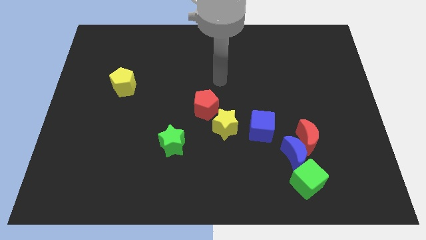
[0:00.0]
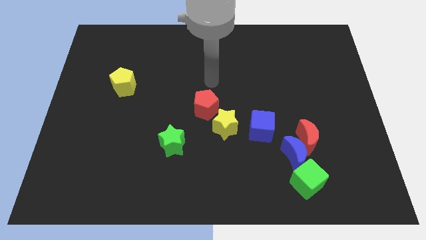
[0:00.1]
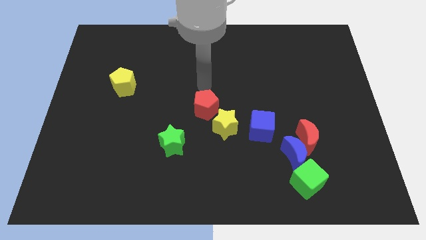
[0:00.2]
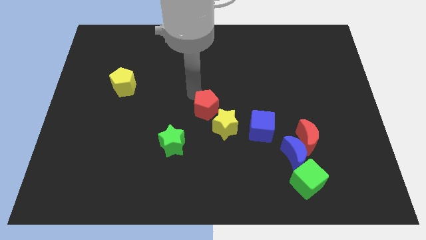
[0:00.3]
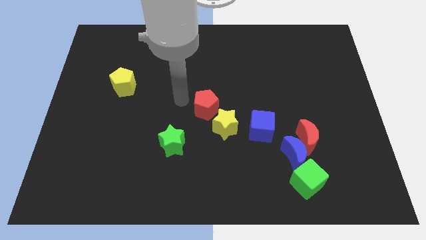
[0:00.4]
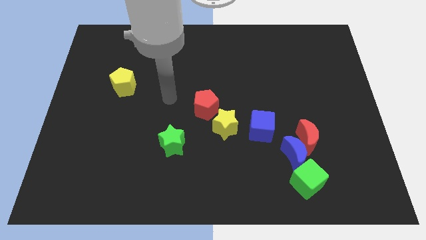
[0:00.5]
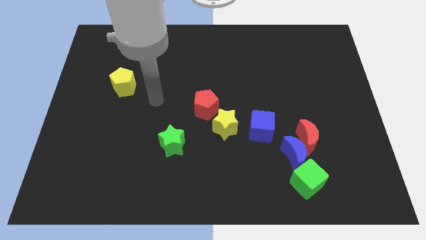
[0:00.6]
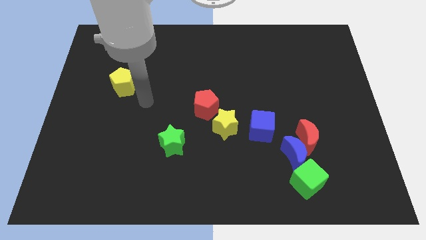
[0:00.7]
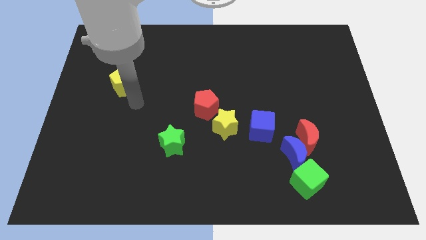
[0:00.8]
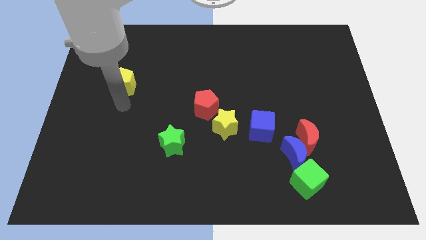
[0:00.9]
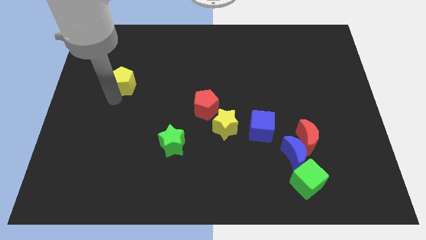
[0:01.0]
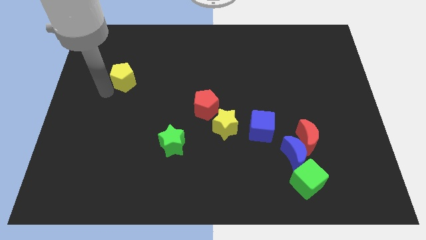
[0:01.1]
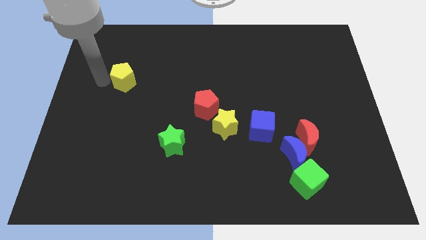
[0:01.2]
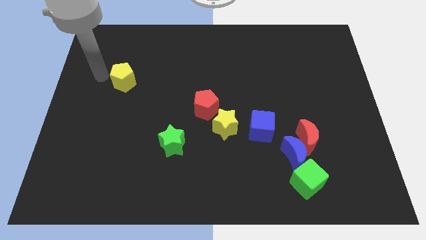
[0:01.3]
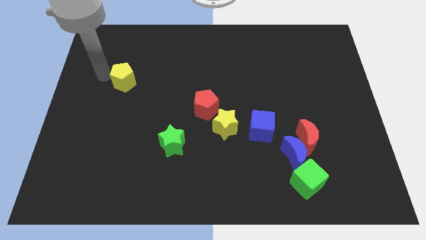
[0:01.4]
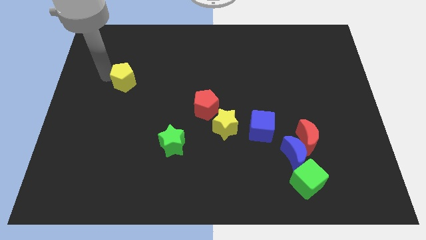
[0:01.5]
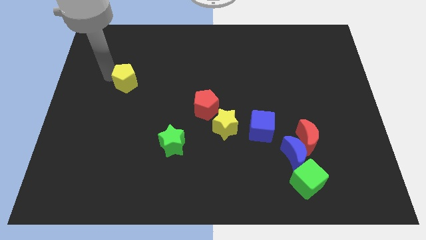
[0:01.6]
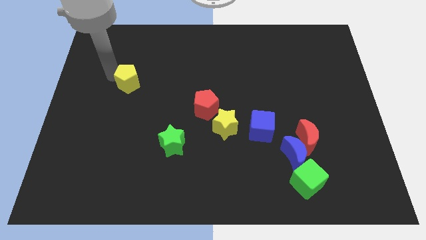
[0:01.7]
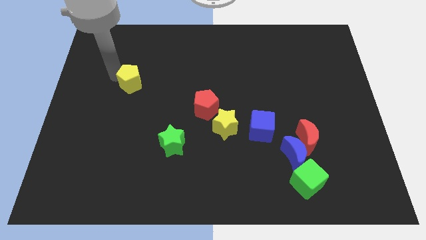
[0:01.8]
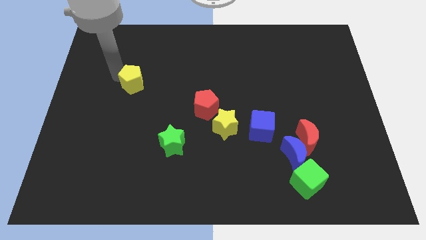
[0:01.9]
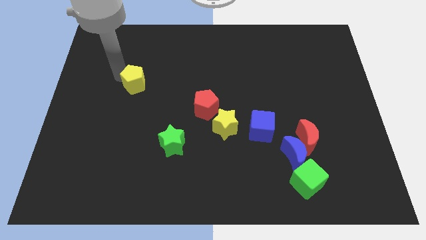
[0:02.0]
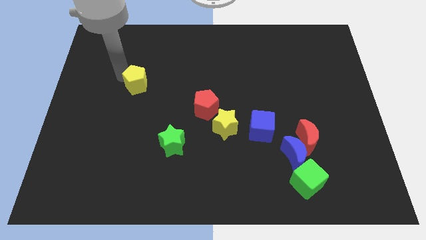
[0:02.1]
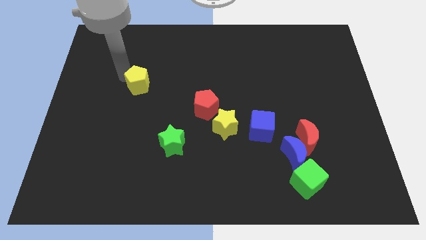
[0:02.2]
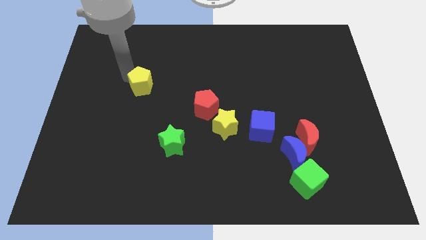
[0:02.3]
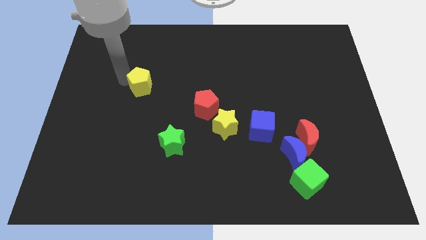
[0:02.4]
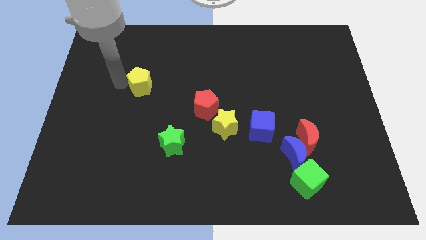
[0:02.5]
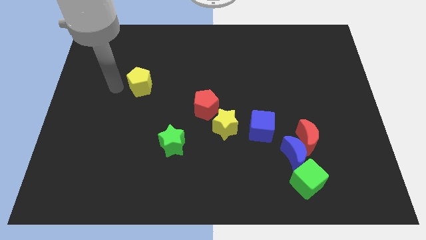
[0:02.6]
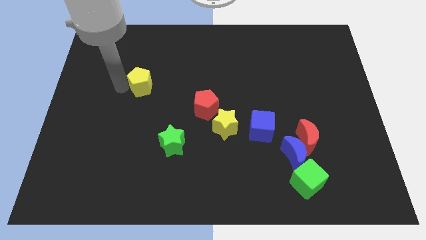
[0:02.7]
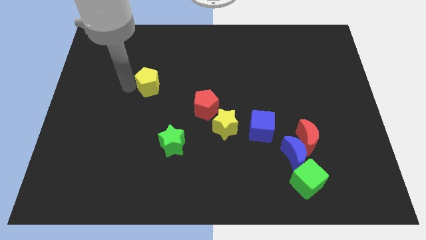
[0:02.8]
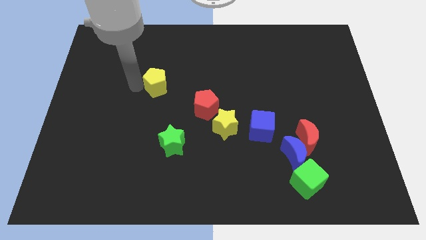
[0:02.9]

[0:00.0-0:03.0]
push the yellow pentagon to the right a bit

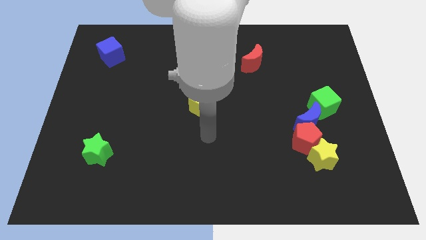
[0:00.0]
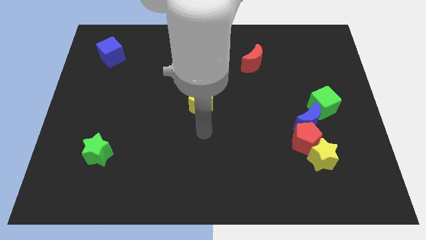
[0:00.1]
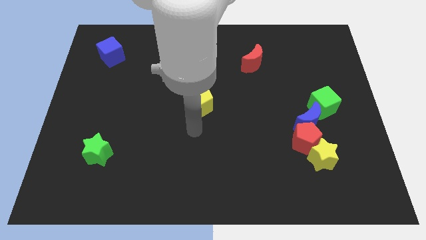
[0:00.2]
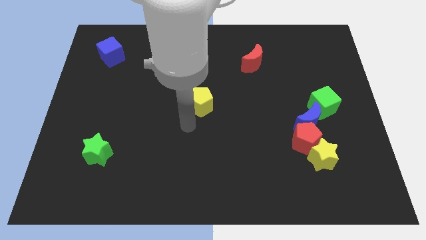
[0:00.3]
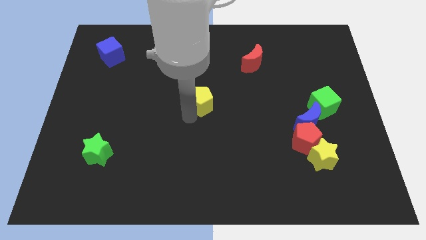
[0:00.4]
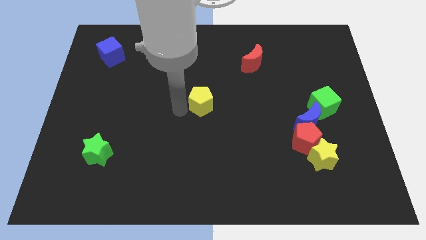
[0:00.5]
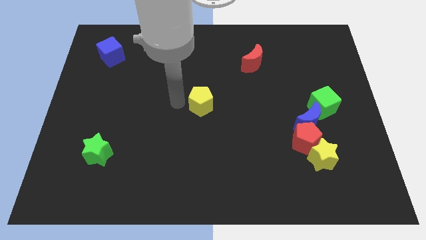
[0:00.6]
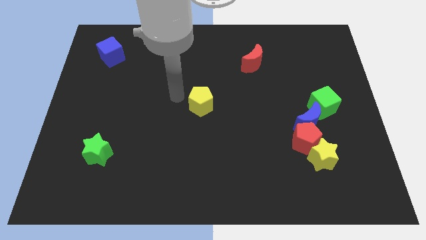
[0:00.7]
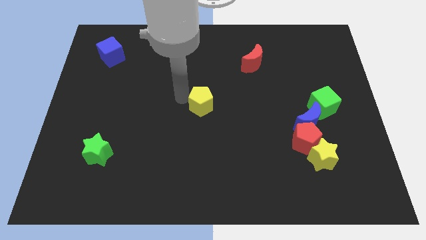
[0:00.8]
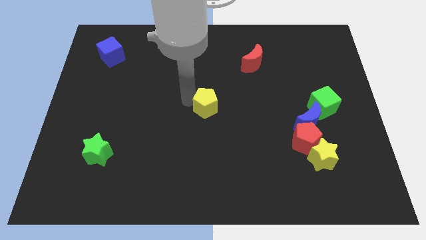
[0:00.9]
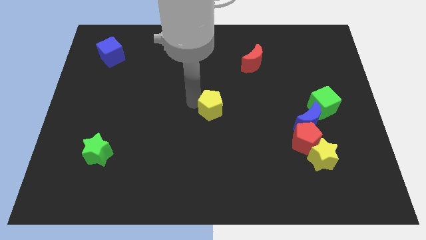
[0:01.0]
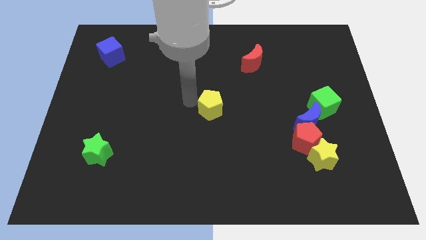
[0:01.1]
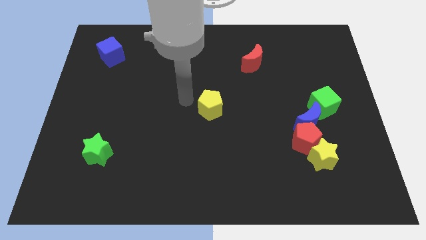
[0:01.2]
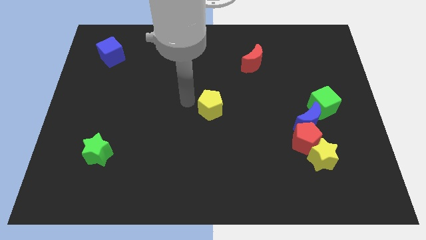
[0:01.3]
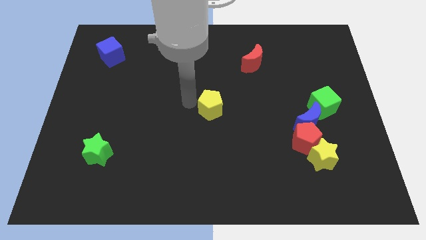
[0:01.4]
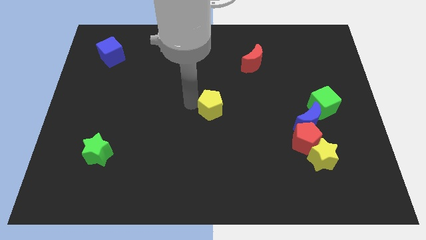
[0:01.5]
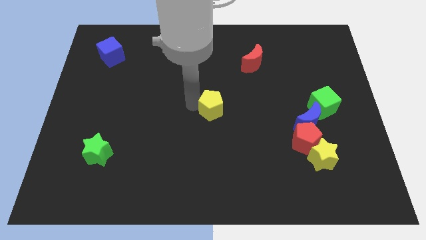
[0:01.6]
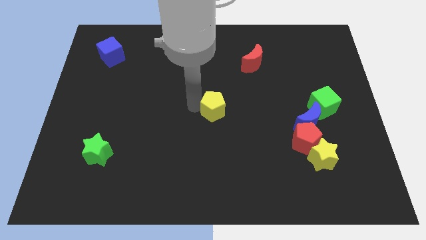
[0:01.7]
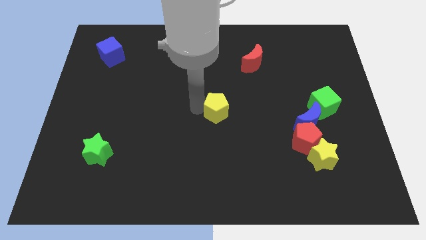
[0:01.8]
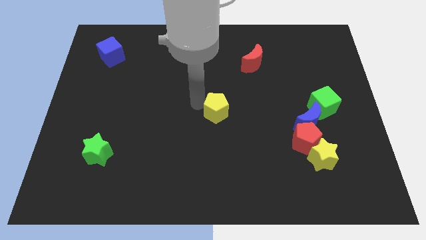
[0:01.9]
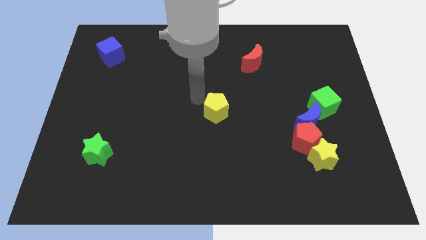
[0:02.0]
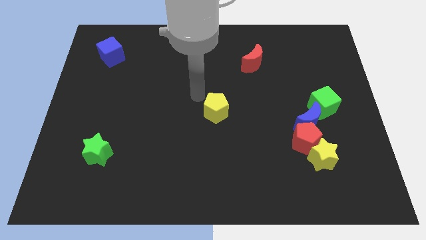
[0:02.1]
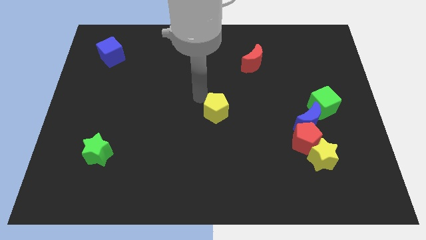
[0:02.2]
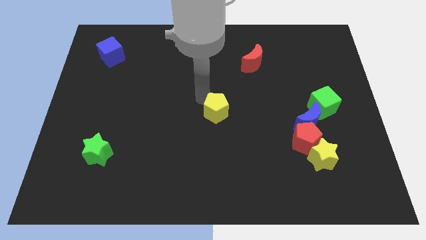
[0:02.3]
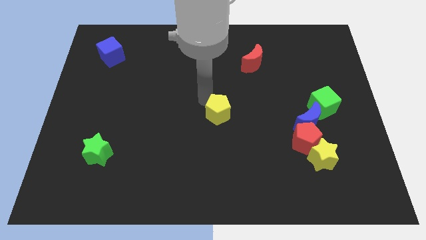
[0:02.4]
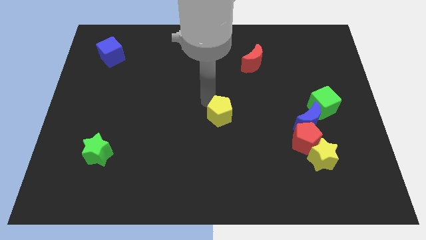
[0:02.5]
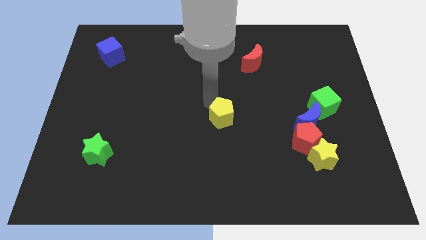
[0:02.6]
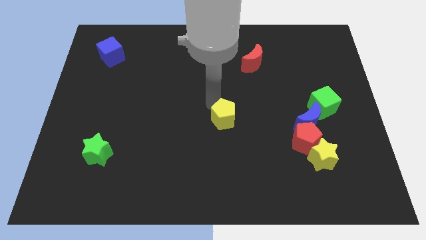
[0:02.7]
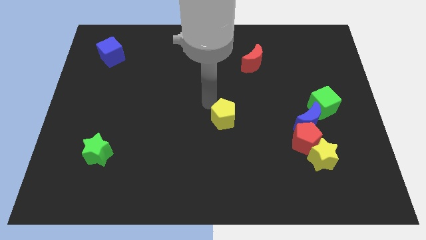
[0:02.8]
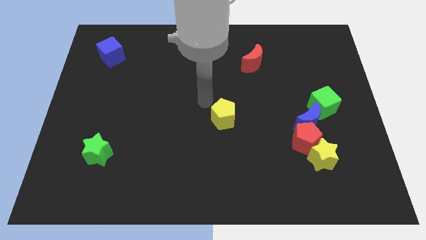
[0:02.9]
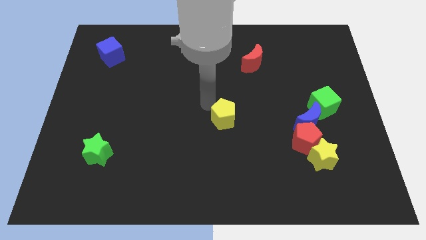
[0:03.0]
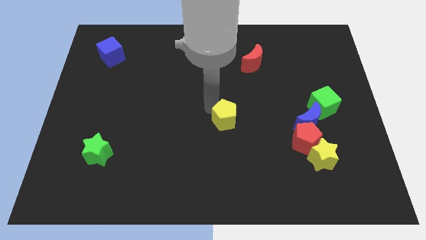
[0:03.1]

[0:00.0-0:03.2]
slide the yellow pentagon slightly down and to the right

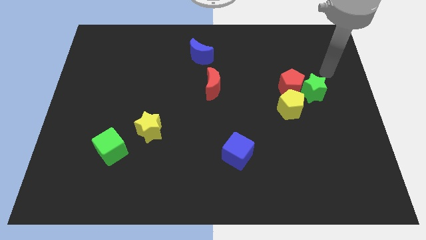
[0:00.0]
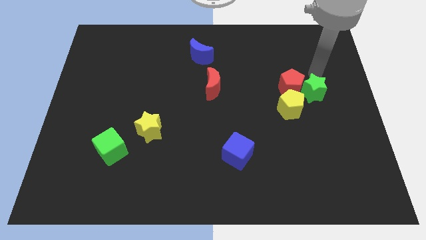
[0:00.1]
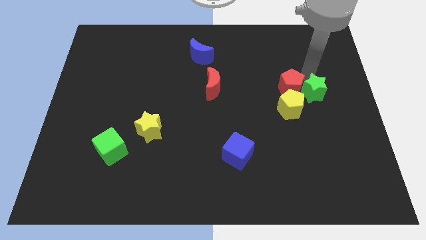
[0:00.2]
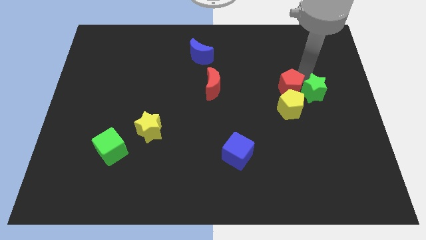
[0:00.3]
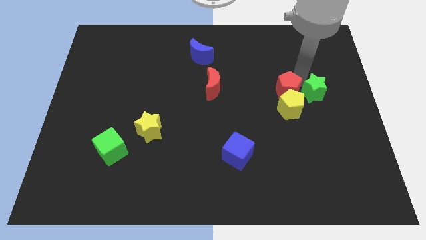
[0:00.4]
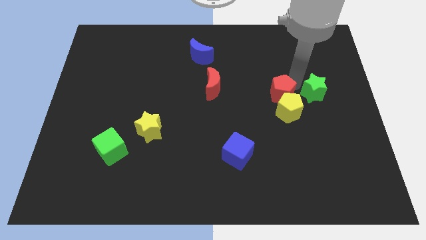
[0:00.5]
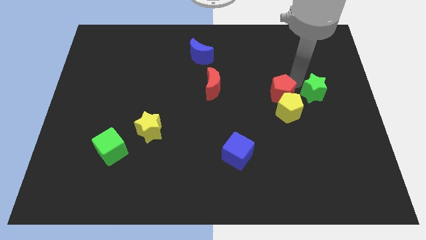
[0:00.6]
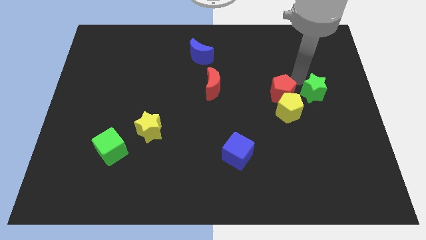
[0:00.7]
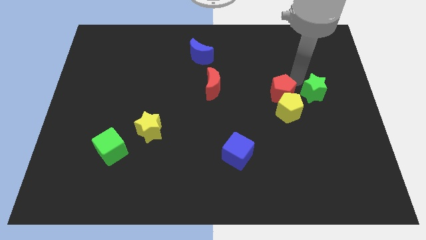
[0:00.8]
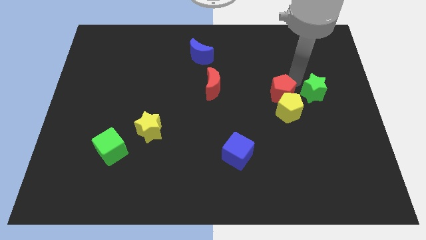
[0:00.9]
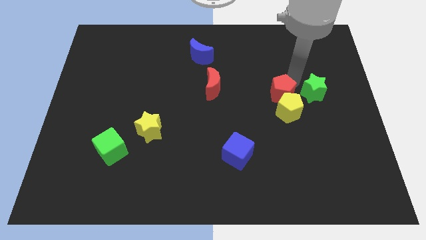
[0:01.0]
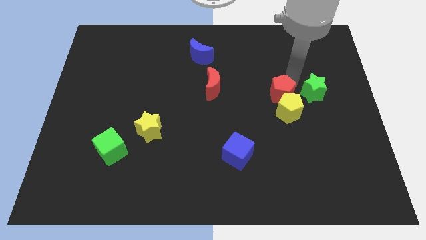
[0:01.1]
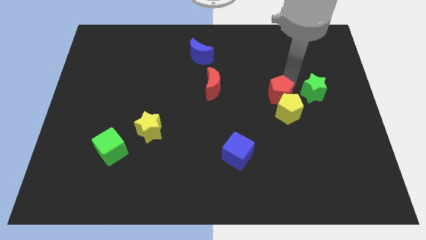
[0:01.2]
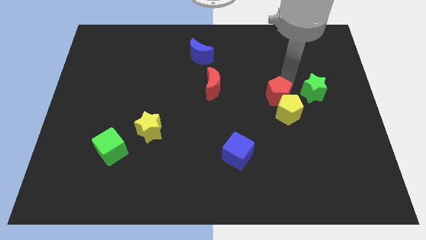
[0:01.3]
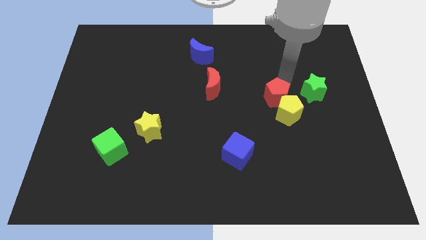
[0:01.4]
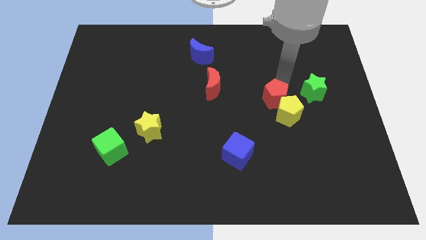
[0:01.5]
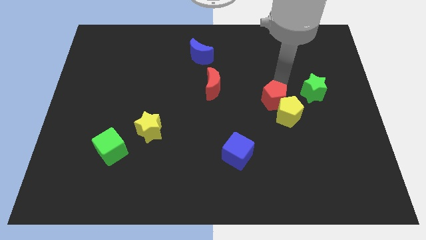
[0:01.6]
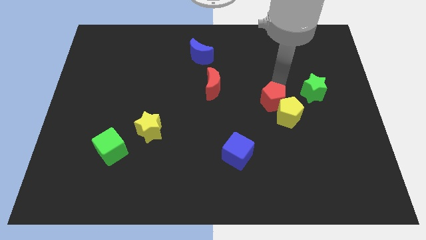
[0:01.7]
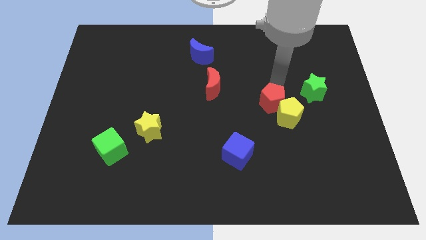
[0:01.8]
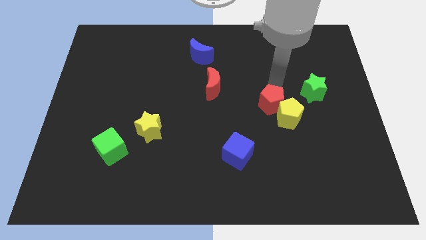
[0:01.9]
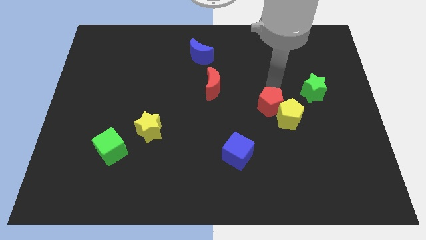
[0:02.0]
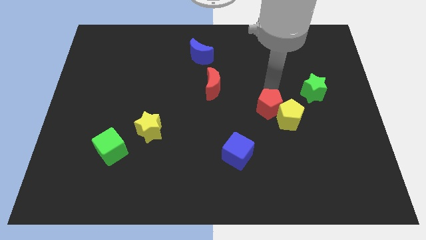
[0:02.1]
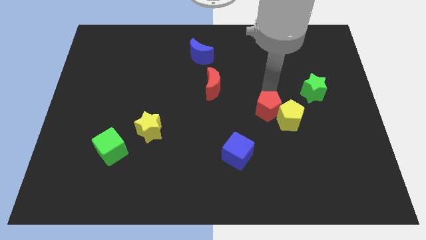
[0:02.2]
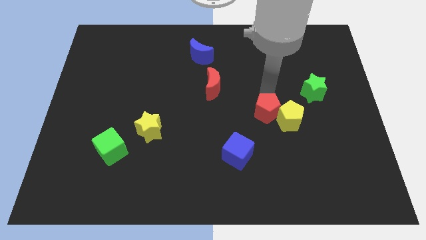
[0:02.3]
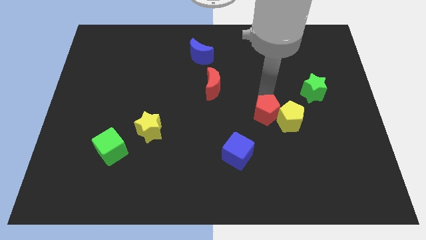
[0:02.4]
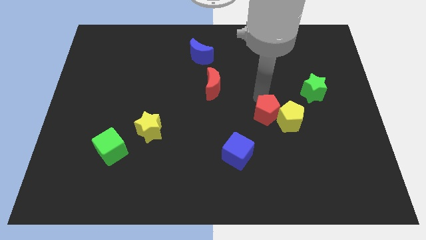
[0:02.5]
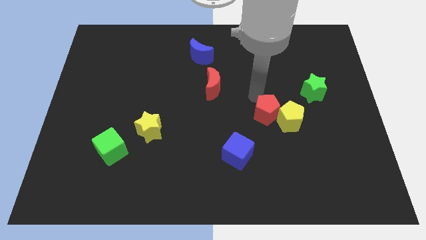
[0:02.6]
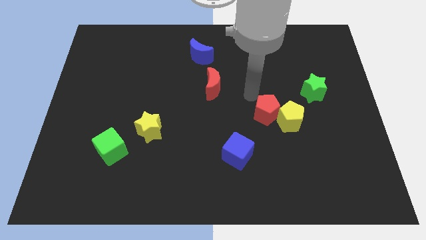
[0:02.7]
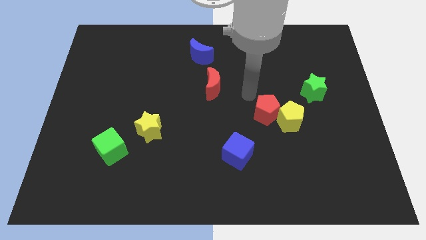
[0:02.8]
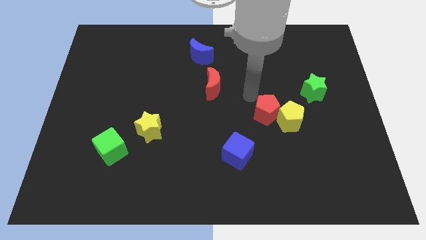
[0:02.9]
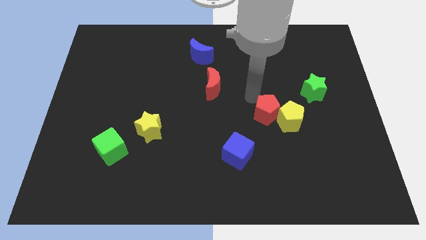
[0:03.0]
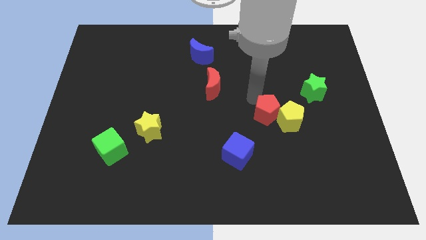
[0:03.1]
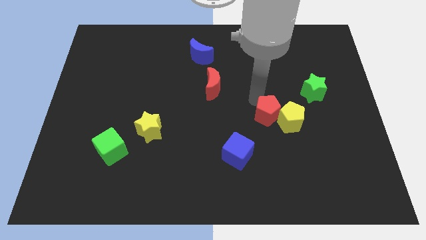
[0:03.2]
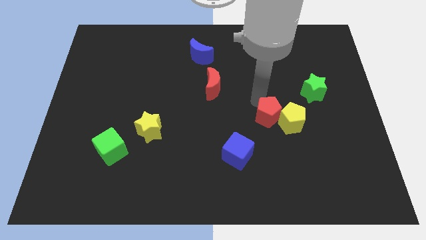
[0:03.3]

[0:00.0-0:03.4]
slightly slide the red pentagon downwards
